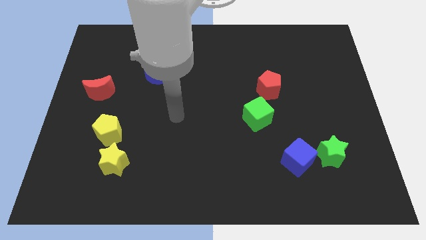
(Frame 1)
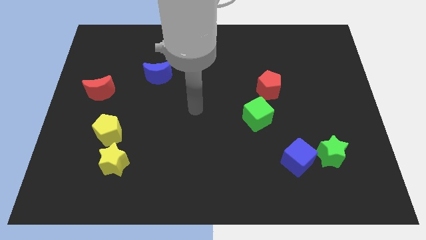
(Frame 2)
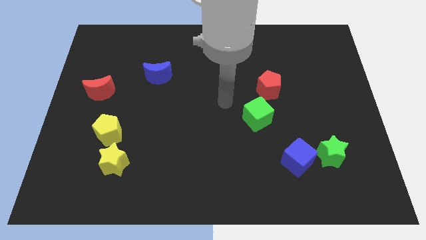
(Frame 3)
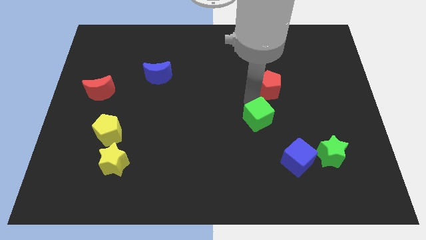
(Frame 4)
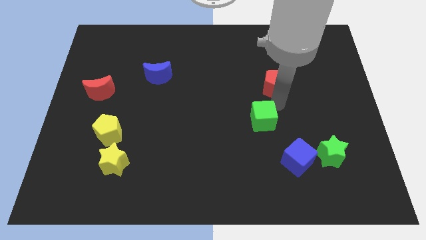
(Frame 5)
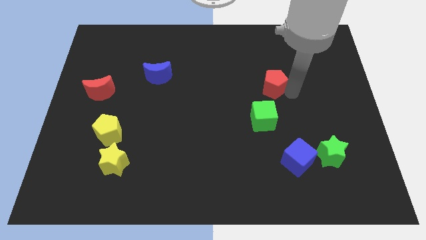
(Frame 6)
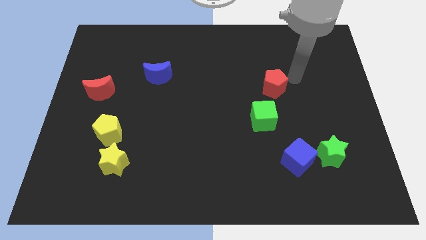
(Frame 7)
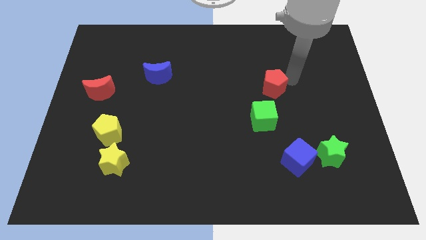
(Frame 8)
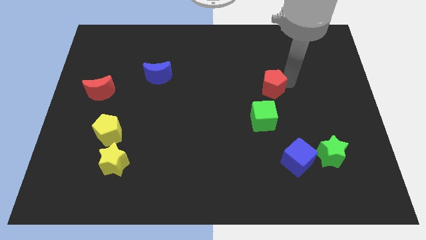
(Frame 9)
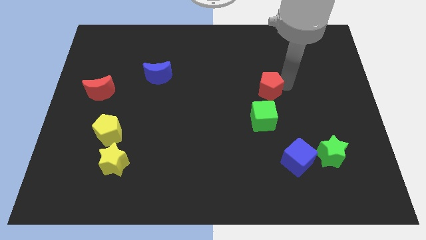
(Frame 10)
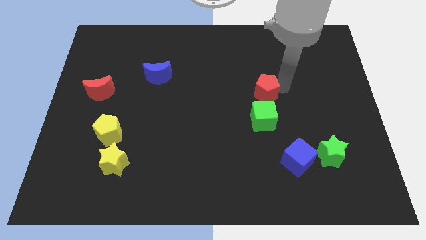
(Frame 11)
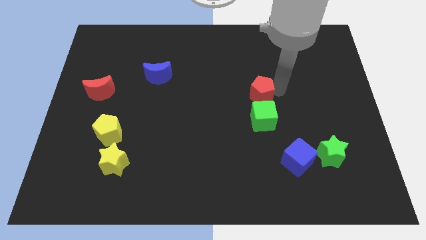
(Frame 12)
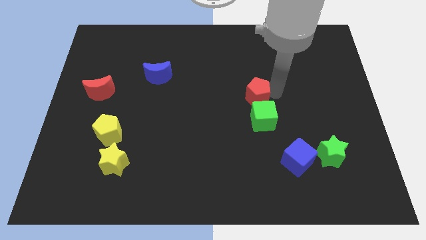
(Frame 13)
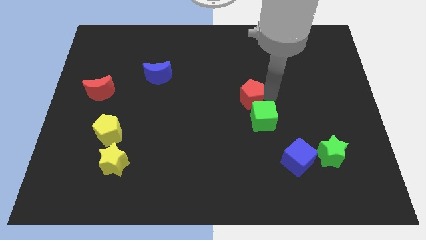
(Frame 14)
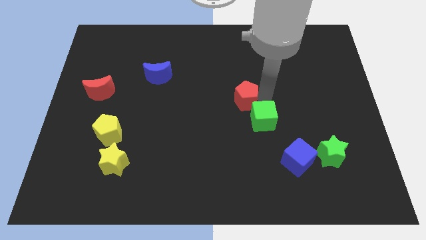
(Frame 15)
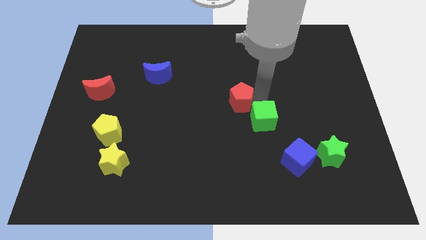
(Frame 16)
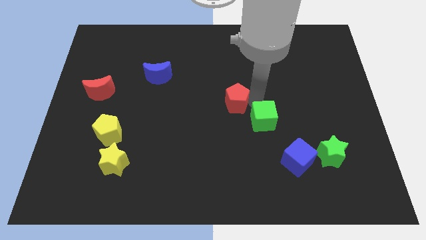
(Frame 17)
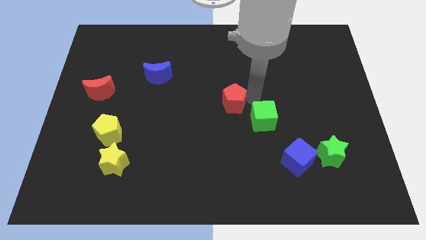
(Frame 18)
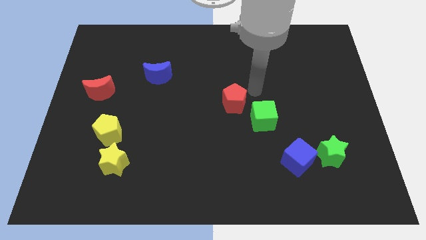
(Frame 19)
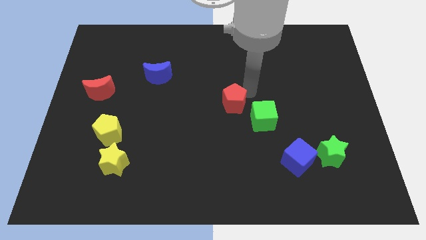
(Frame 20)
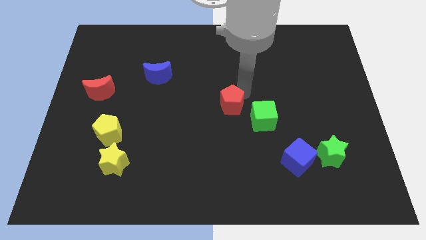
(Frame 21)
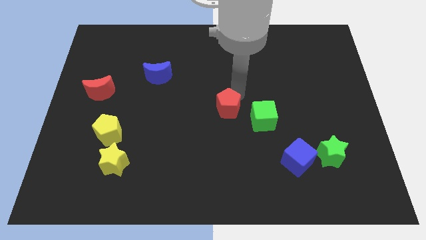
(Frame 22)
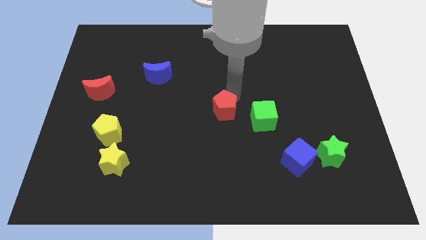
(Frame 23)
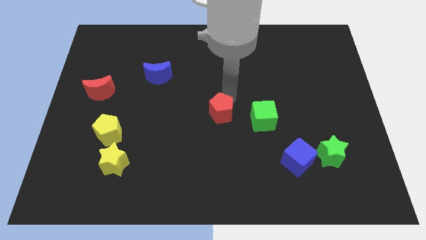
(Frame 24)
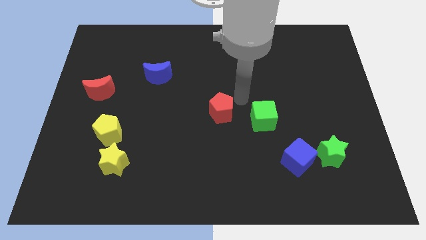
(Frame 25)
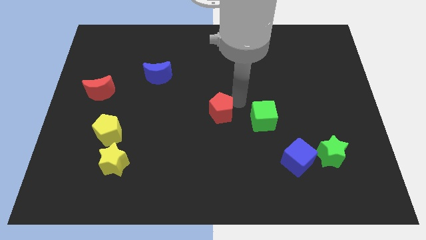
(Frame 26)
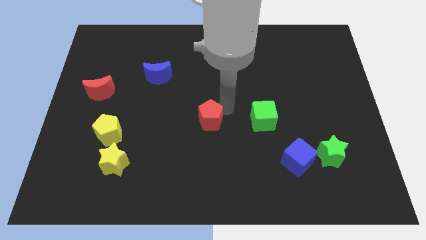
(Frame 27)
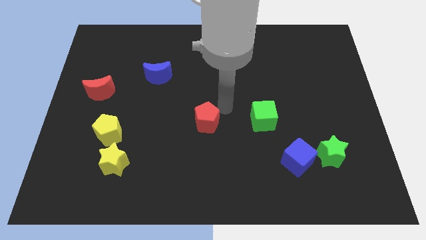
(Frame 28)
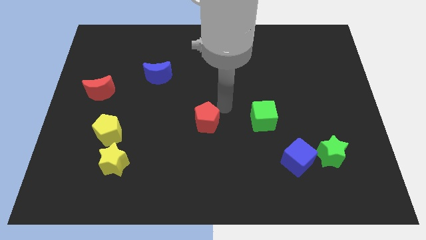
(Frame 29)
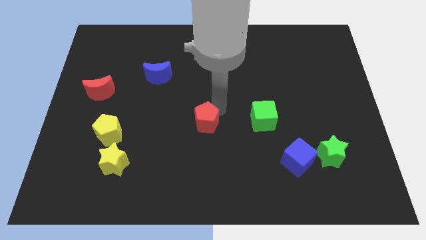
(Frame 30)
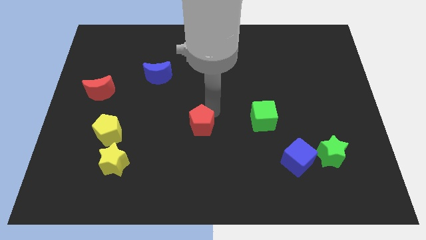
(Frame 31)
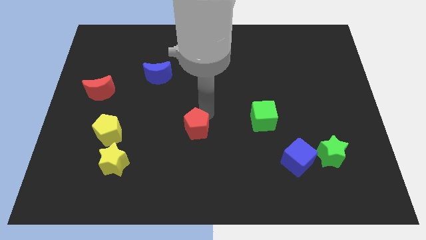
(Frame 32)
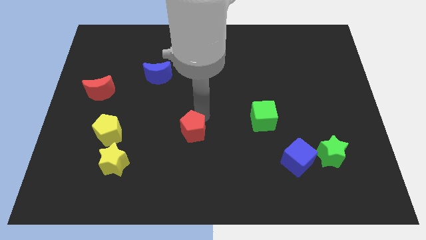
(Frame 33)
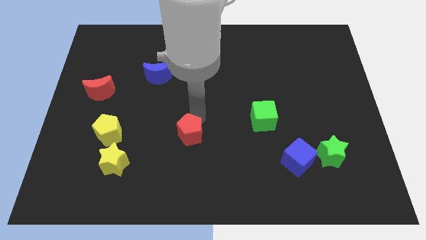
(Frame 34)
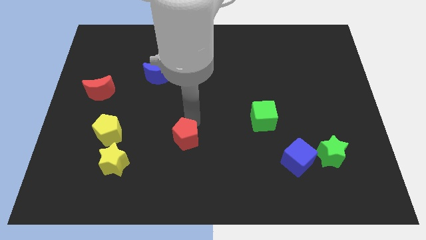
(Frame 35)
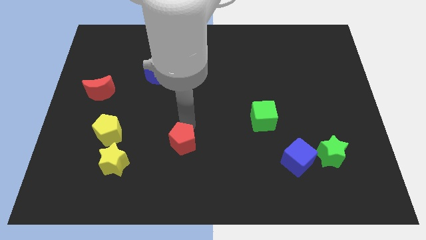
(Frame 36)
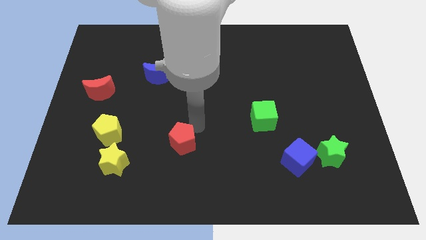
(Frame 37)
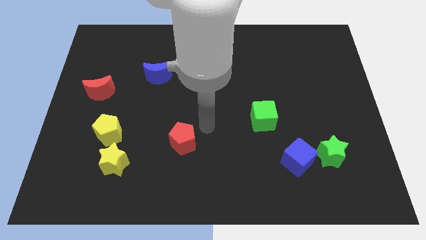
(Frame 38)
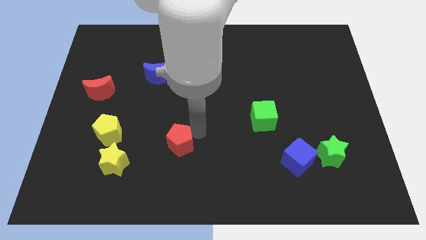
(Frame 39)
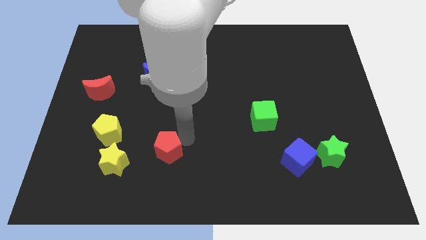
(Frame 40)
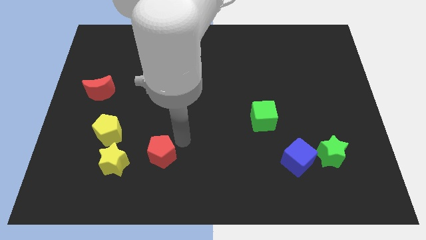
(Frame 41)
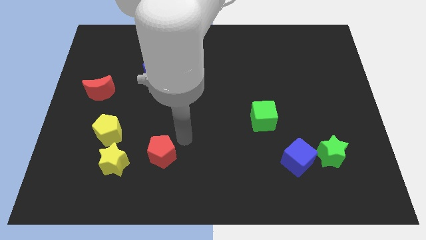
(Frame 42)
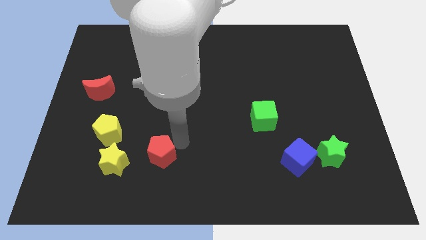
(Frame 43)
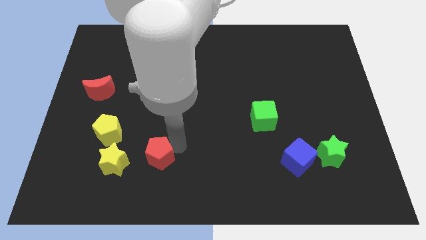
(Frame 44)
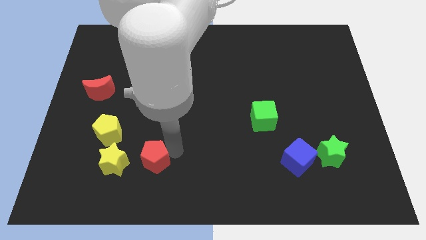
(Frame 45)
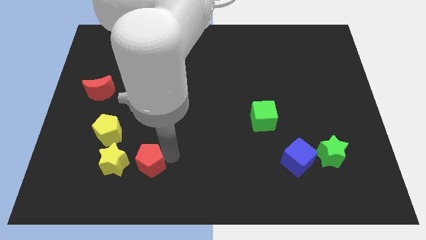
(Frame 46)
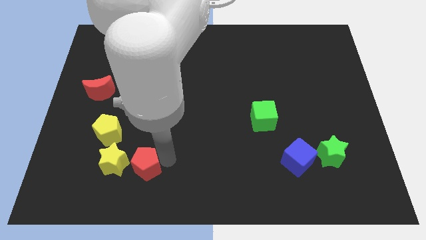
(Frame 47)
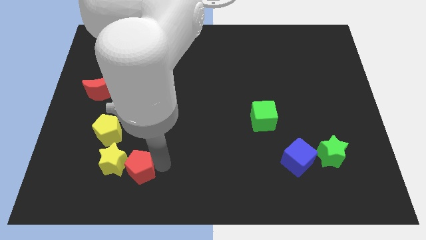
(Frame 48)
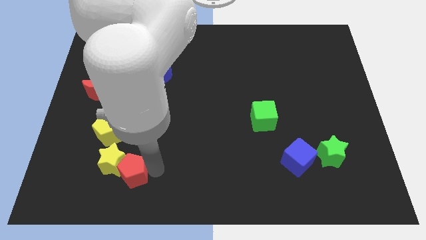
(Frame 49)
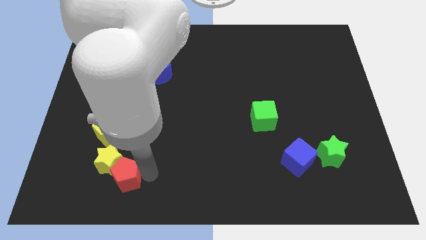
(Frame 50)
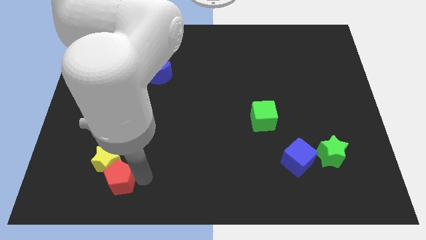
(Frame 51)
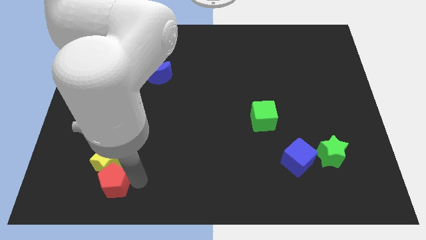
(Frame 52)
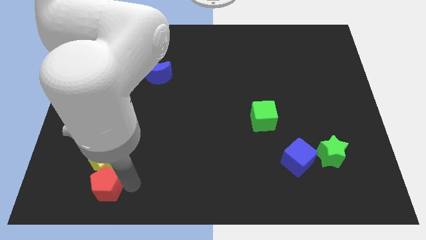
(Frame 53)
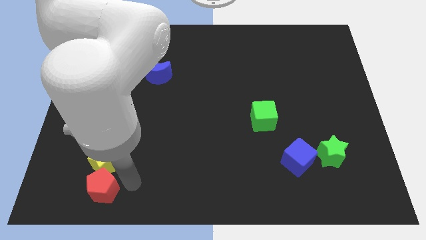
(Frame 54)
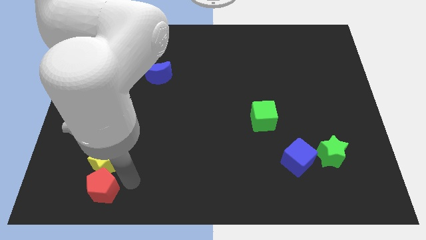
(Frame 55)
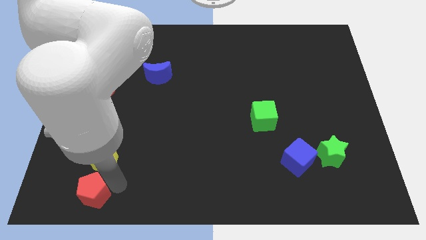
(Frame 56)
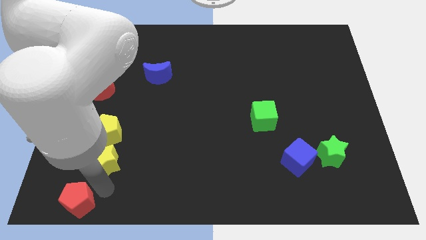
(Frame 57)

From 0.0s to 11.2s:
move the red pentagon to the bottom left corner

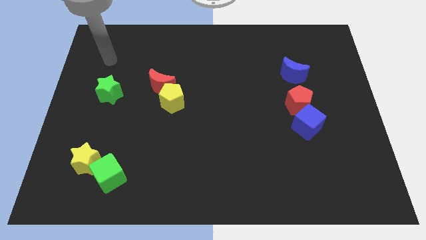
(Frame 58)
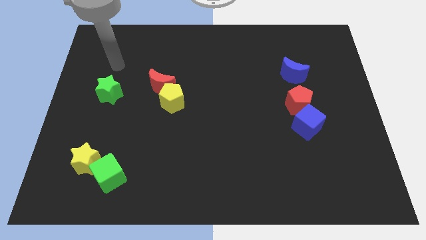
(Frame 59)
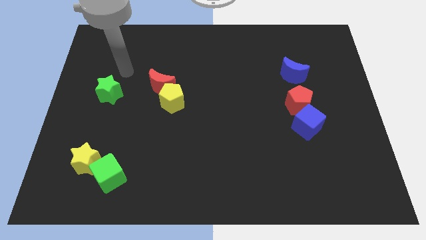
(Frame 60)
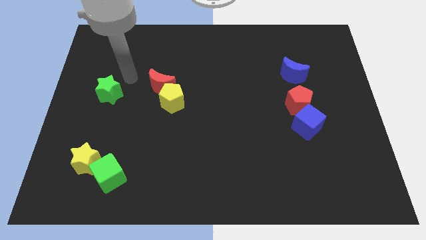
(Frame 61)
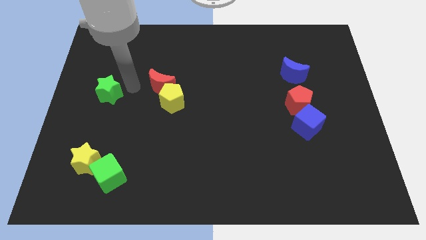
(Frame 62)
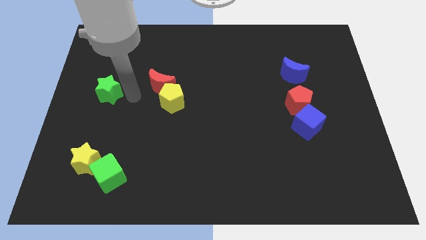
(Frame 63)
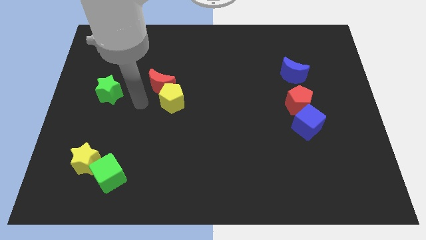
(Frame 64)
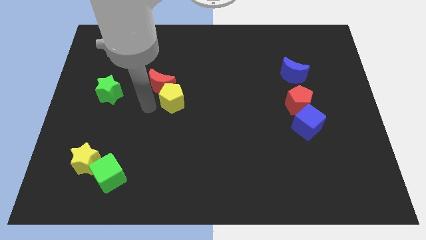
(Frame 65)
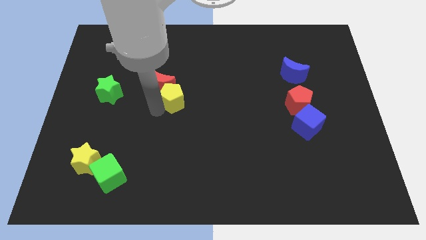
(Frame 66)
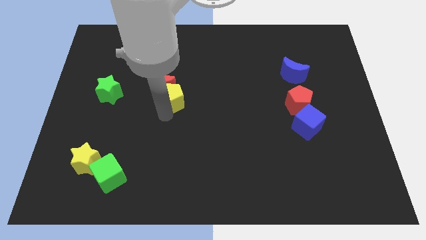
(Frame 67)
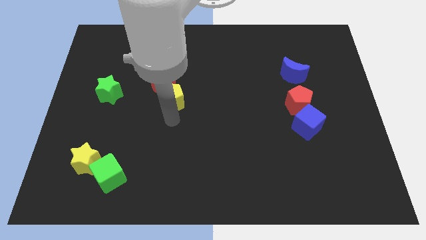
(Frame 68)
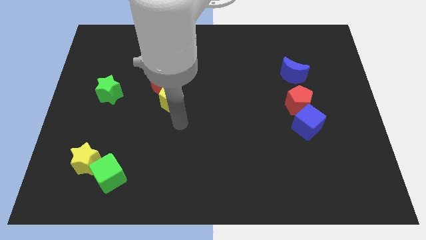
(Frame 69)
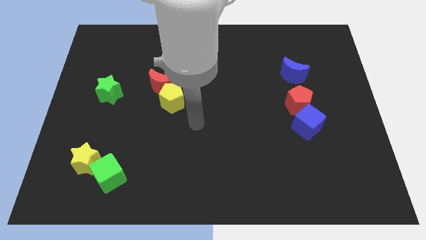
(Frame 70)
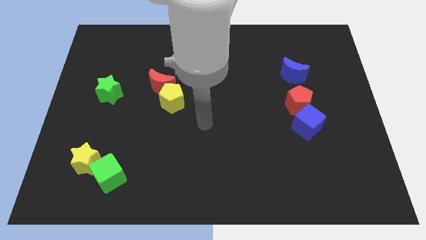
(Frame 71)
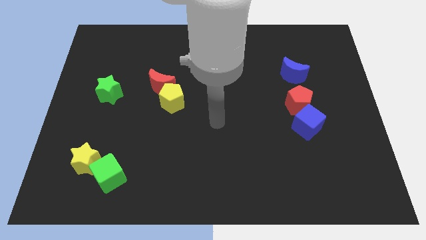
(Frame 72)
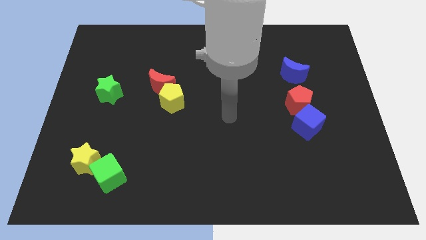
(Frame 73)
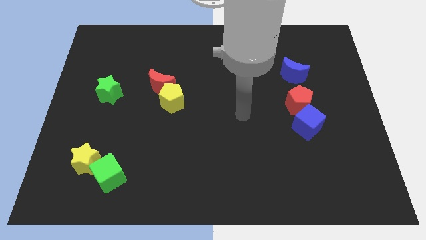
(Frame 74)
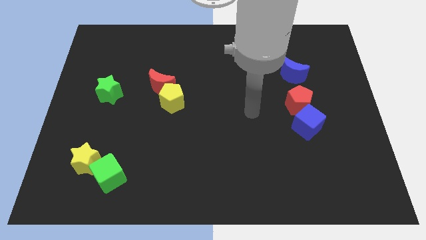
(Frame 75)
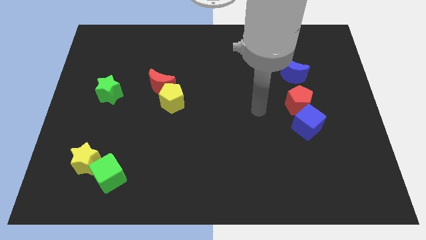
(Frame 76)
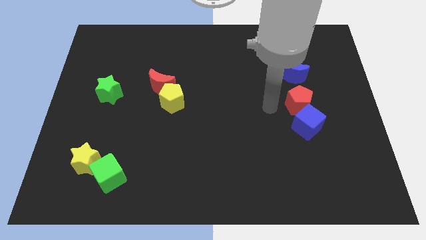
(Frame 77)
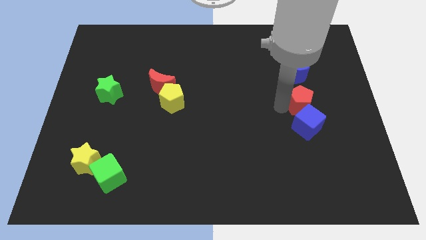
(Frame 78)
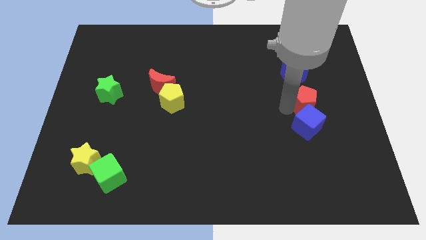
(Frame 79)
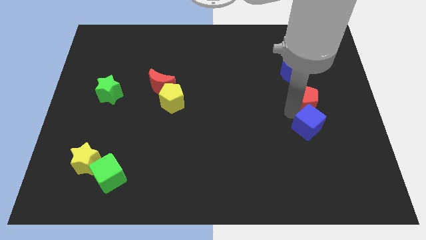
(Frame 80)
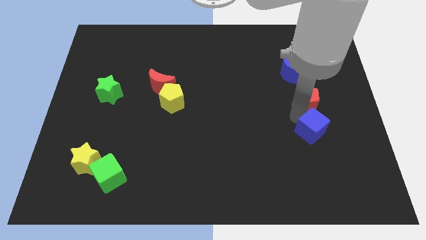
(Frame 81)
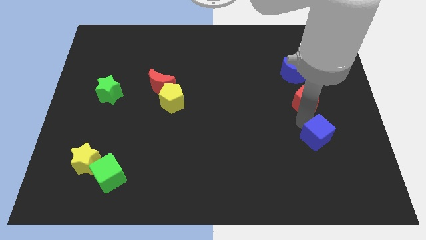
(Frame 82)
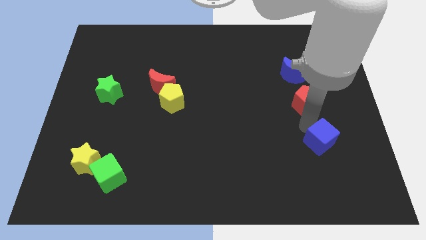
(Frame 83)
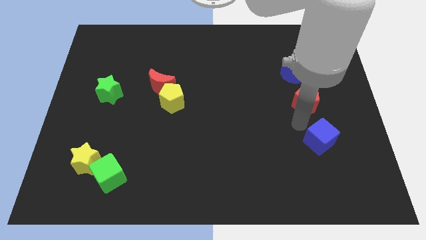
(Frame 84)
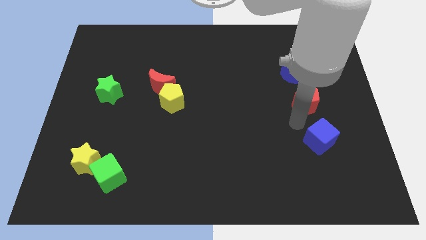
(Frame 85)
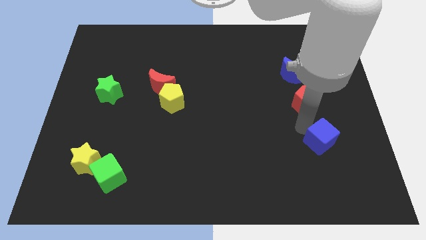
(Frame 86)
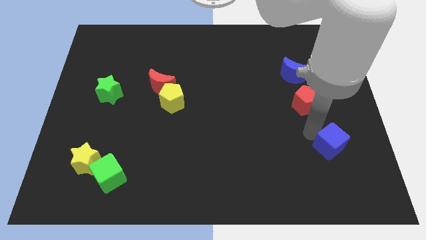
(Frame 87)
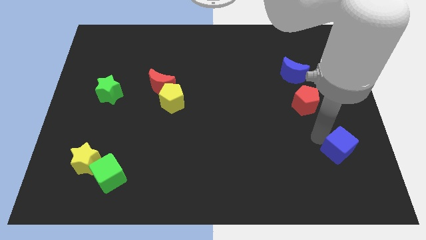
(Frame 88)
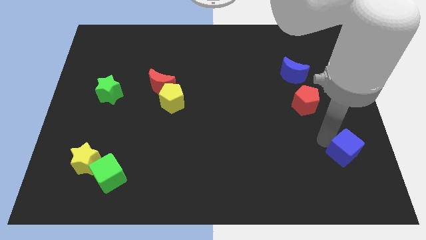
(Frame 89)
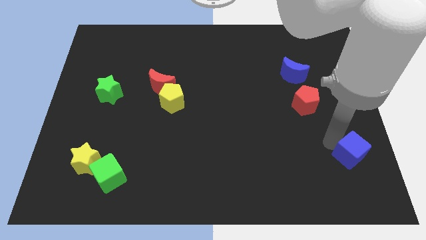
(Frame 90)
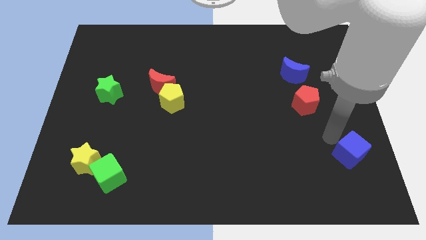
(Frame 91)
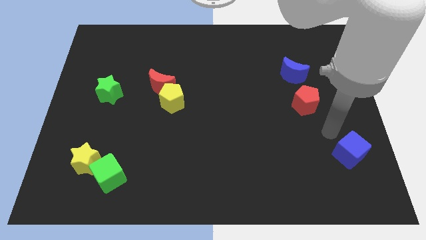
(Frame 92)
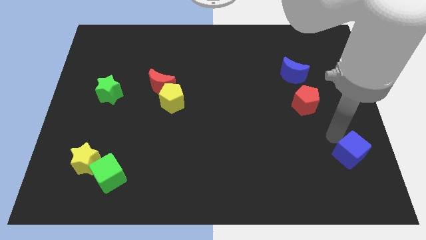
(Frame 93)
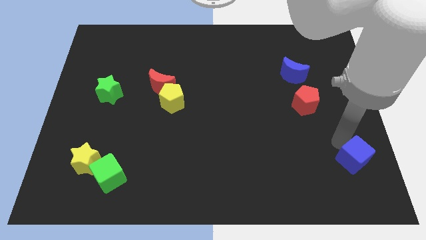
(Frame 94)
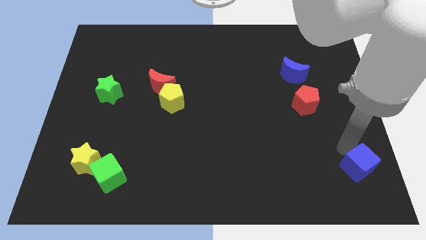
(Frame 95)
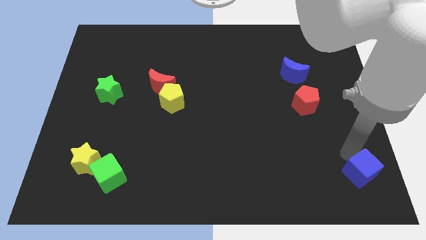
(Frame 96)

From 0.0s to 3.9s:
move the blue cube to the bottom right corner
